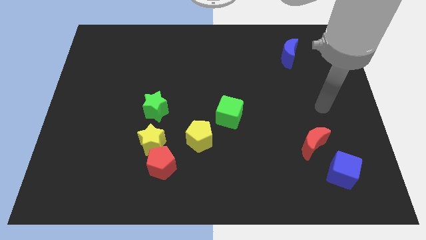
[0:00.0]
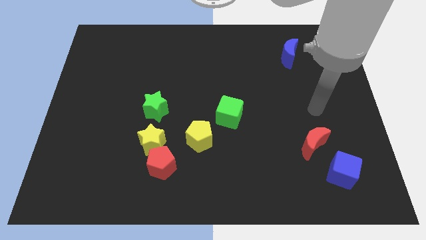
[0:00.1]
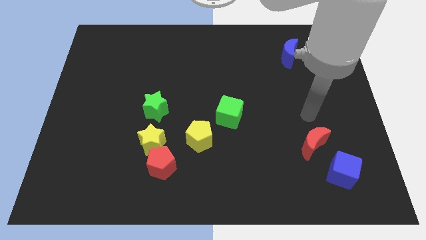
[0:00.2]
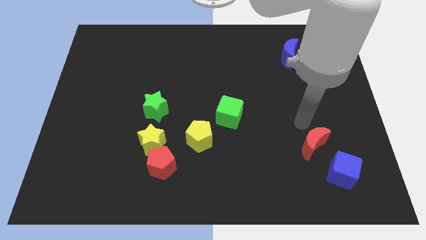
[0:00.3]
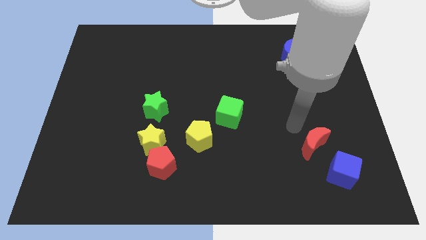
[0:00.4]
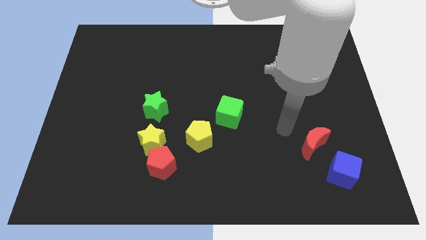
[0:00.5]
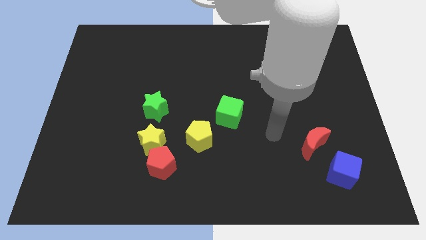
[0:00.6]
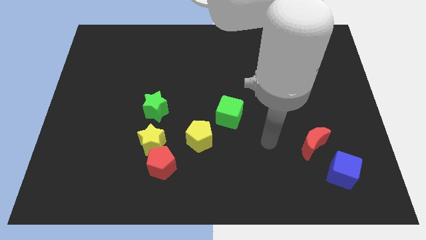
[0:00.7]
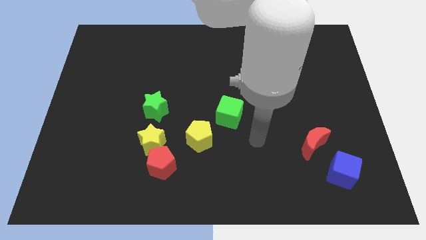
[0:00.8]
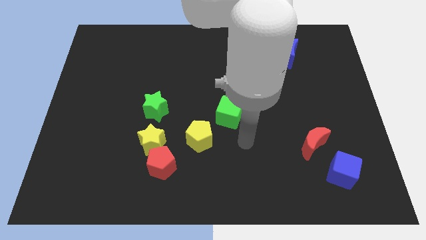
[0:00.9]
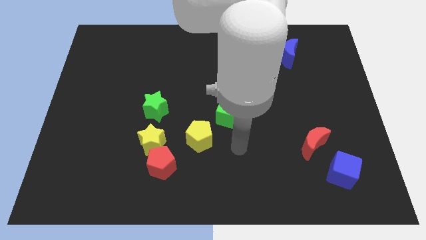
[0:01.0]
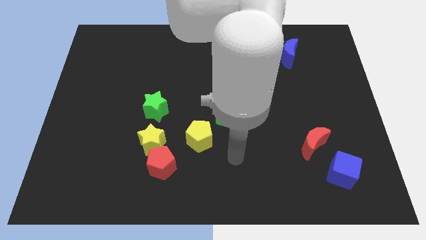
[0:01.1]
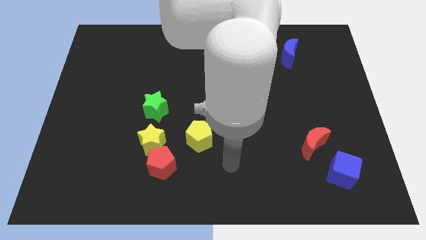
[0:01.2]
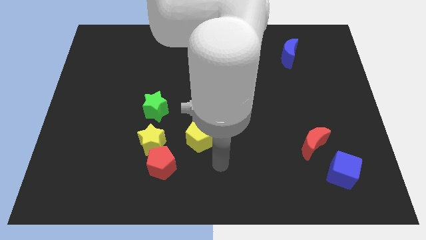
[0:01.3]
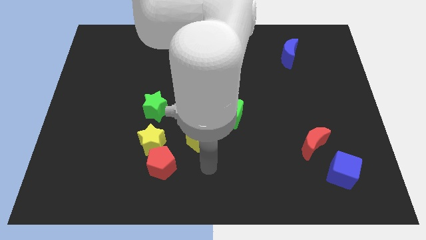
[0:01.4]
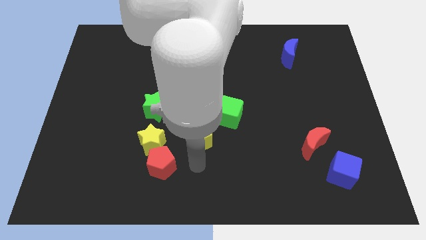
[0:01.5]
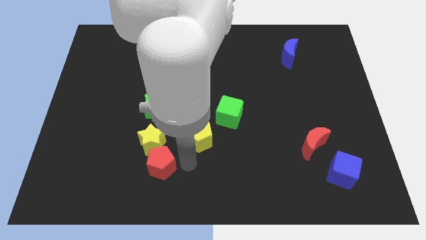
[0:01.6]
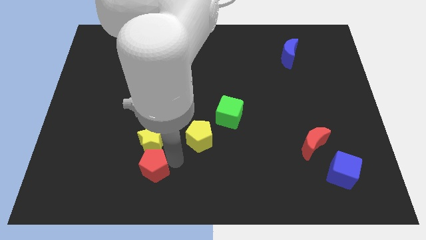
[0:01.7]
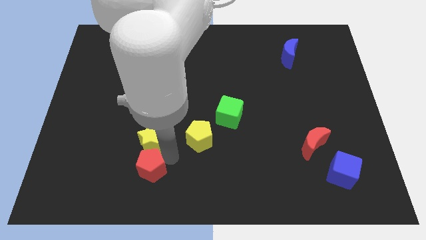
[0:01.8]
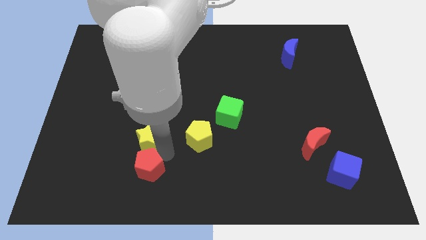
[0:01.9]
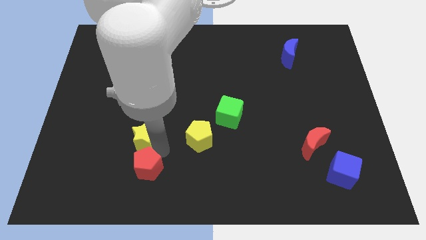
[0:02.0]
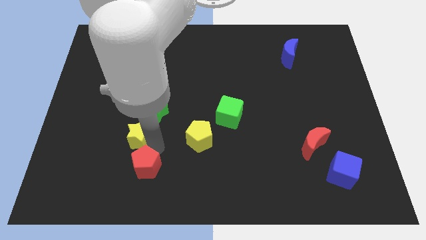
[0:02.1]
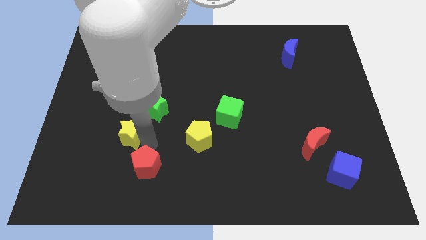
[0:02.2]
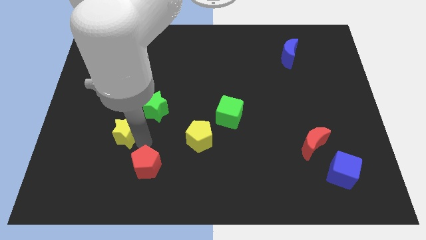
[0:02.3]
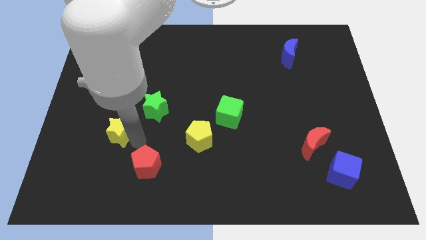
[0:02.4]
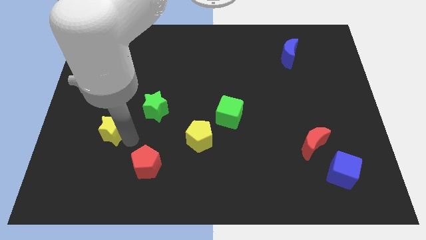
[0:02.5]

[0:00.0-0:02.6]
move the yellow star a little bit diagonally up and left

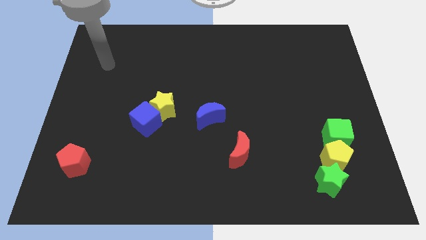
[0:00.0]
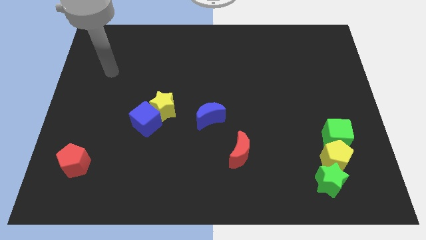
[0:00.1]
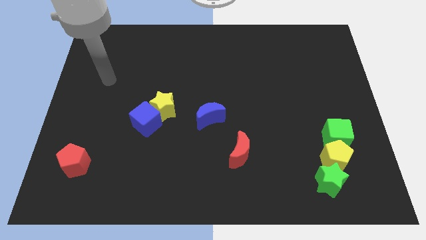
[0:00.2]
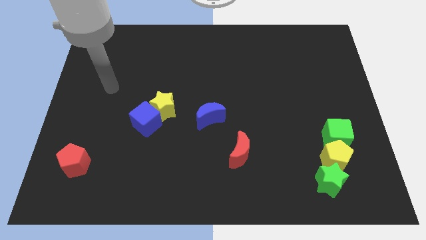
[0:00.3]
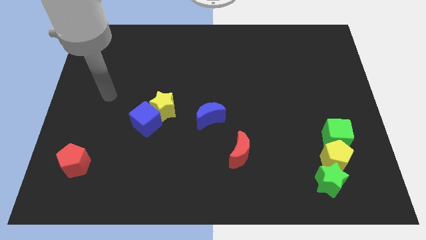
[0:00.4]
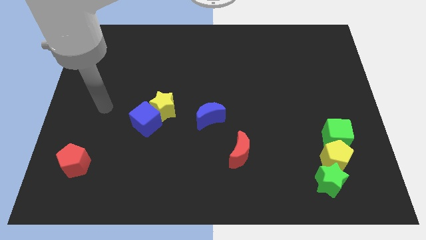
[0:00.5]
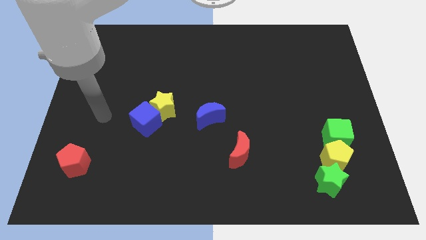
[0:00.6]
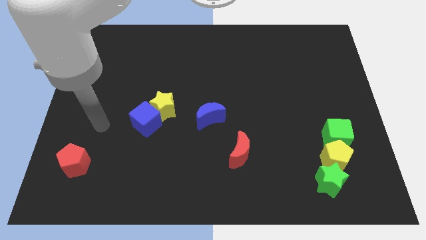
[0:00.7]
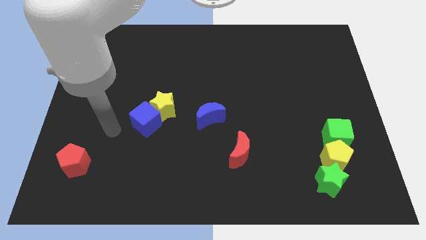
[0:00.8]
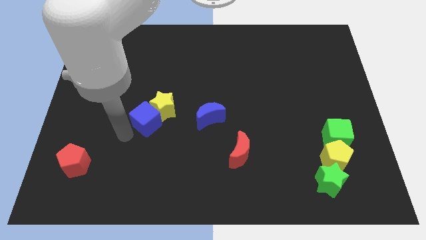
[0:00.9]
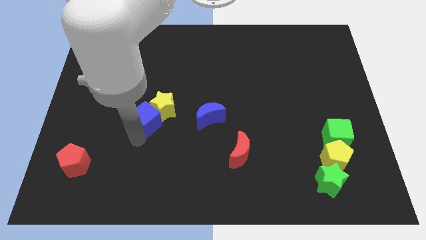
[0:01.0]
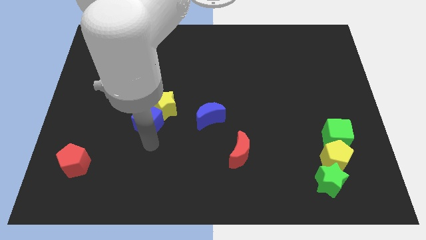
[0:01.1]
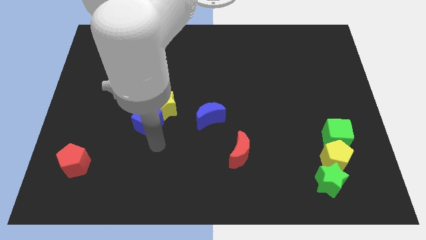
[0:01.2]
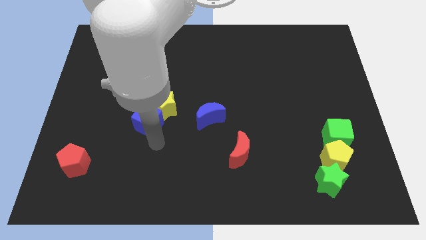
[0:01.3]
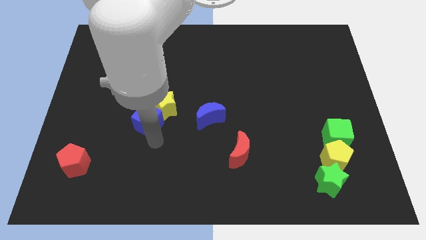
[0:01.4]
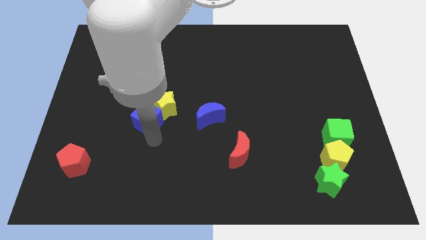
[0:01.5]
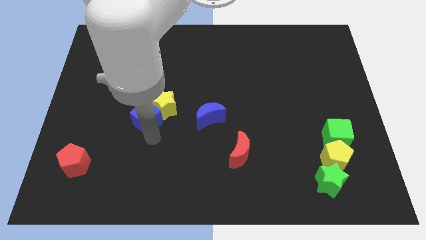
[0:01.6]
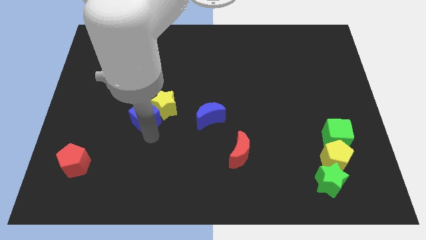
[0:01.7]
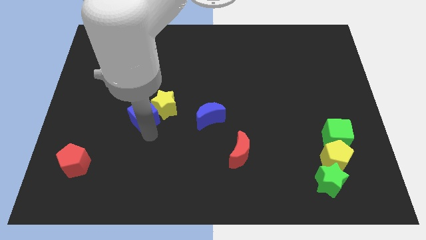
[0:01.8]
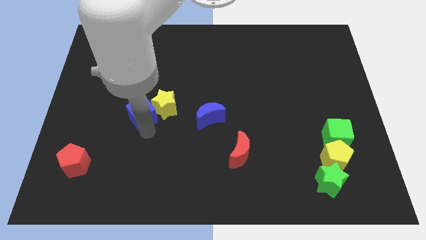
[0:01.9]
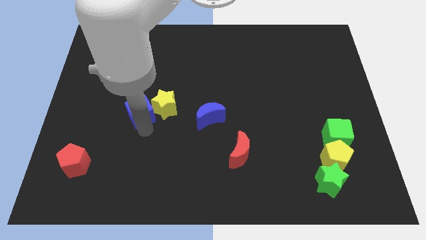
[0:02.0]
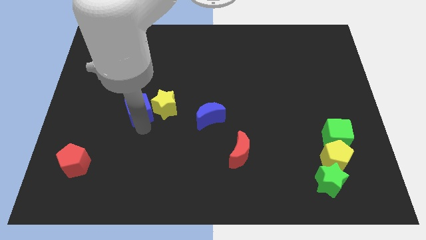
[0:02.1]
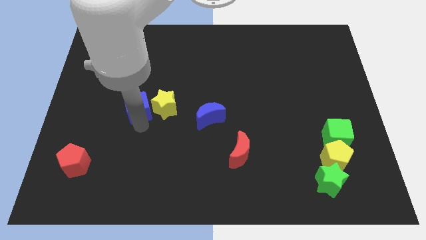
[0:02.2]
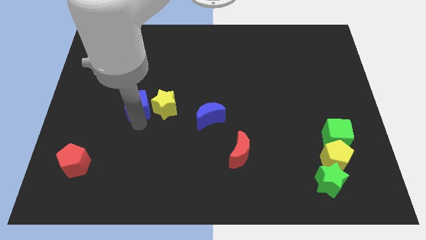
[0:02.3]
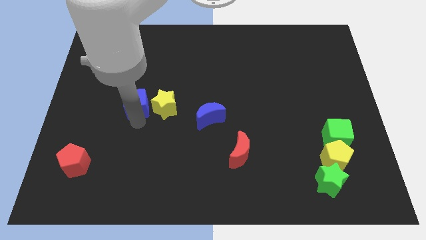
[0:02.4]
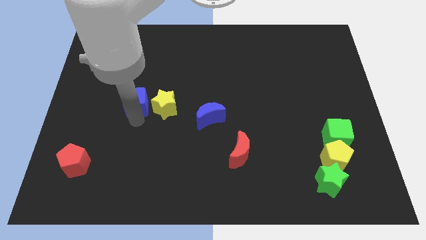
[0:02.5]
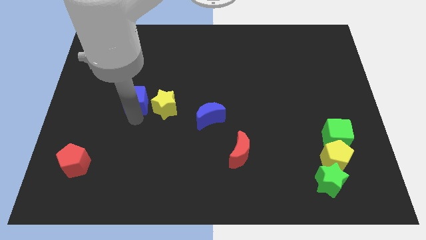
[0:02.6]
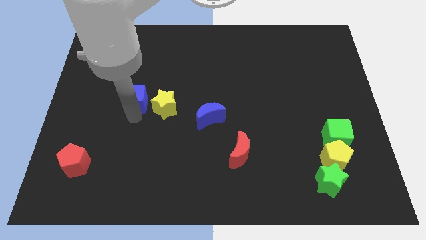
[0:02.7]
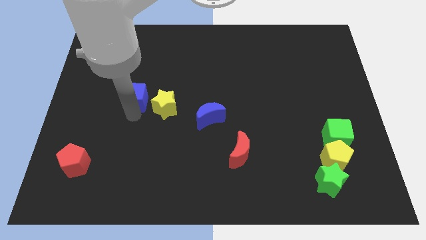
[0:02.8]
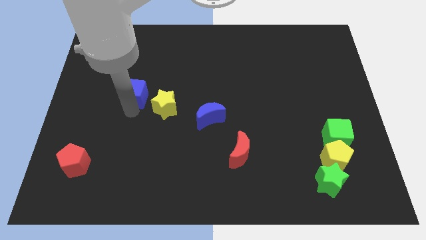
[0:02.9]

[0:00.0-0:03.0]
push the blue cube a bit up

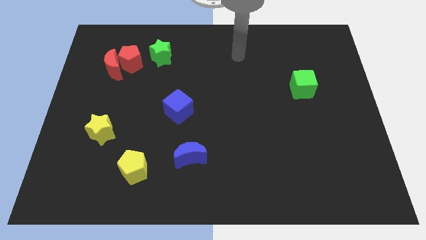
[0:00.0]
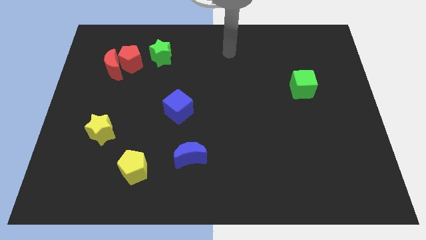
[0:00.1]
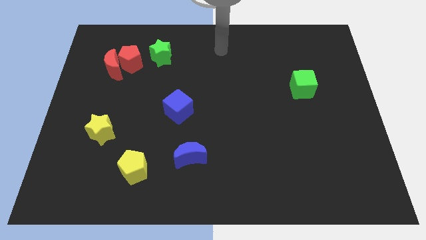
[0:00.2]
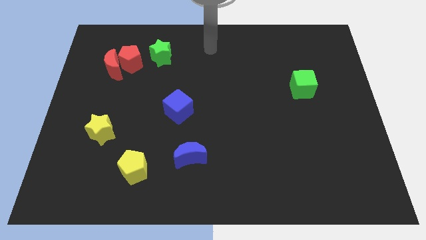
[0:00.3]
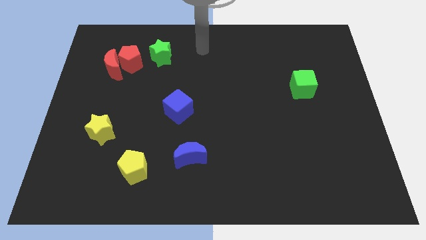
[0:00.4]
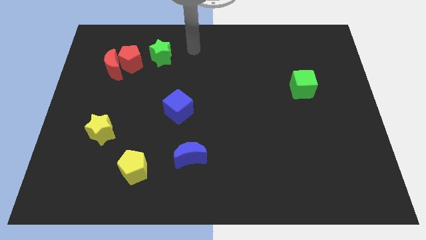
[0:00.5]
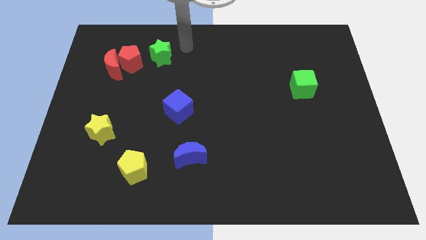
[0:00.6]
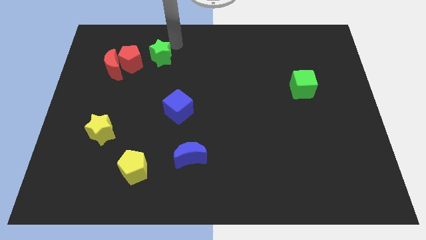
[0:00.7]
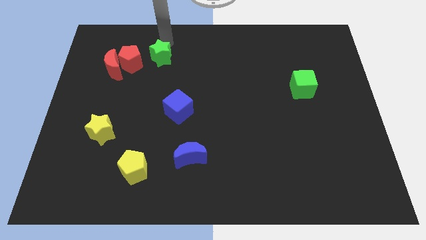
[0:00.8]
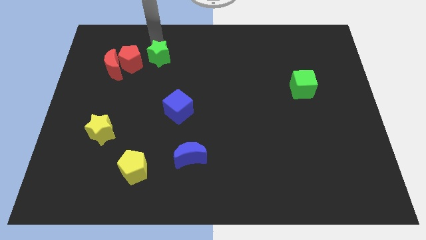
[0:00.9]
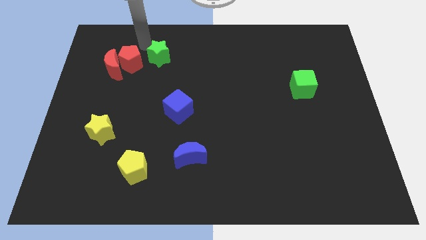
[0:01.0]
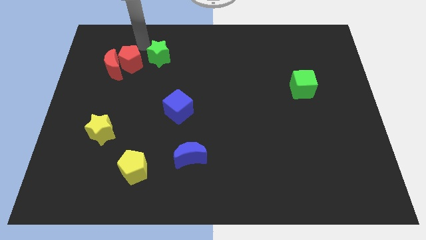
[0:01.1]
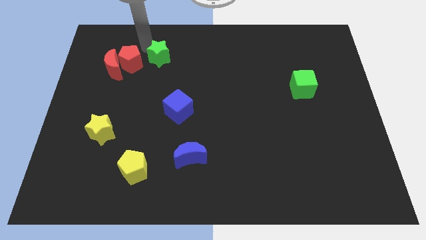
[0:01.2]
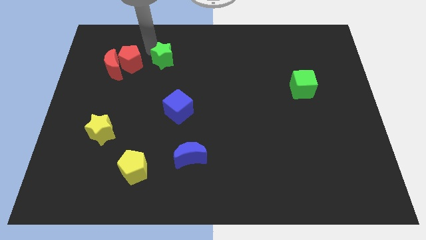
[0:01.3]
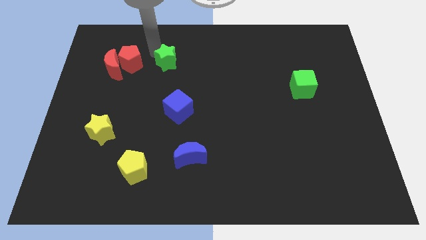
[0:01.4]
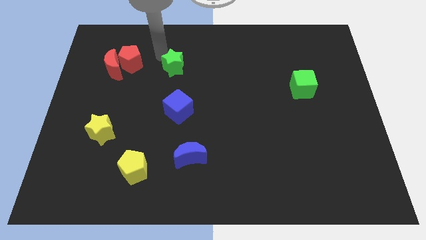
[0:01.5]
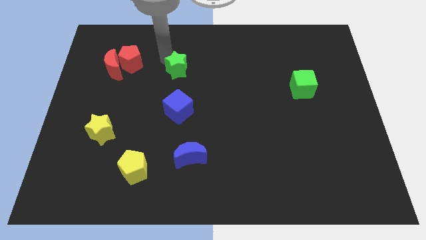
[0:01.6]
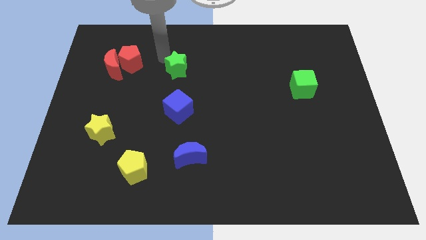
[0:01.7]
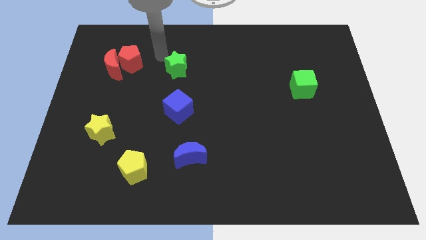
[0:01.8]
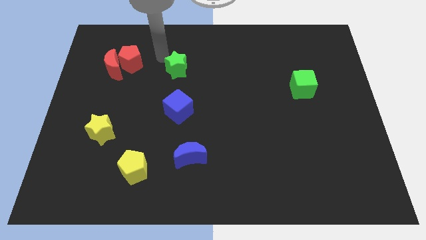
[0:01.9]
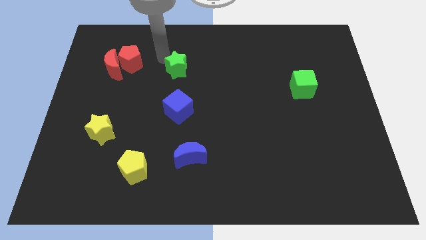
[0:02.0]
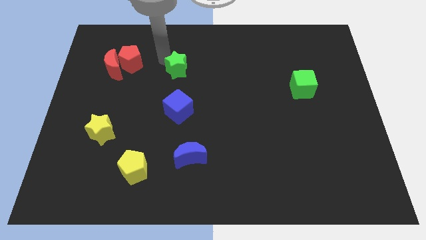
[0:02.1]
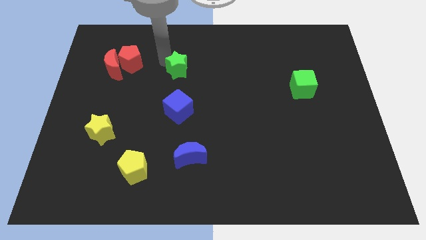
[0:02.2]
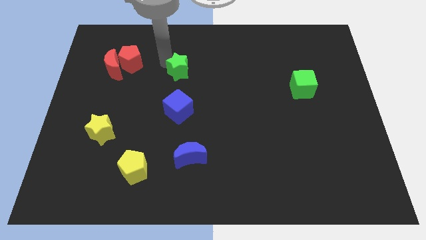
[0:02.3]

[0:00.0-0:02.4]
slightly push the green star downwards and then right
